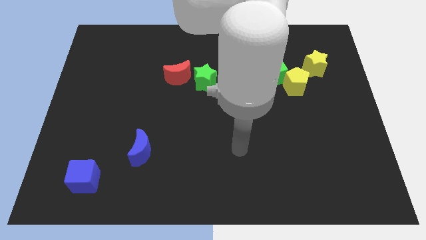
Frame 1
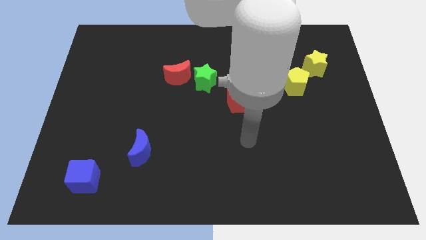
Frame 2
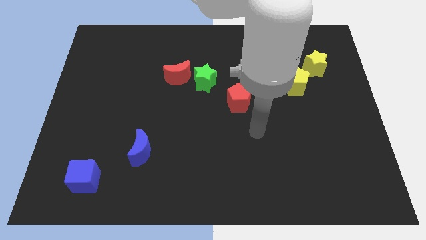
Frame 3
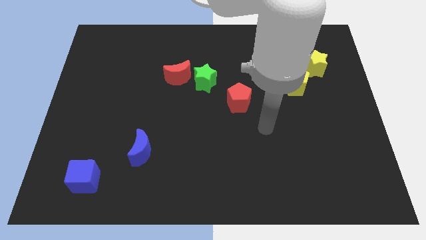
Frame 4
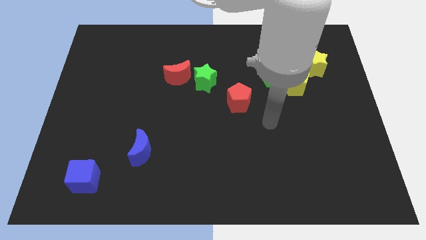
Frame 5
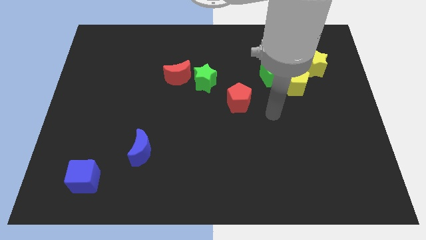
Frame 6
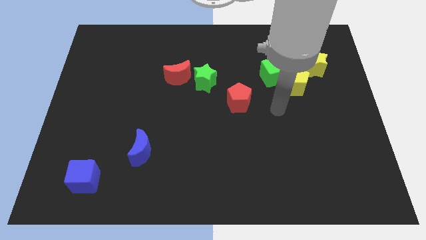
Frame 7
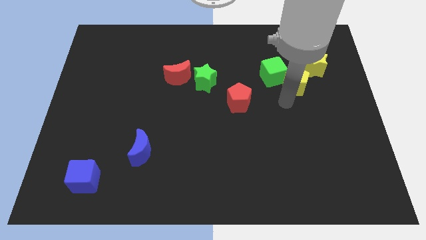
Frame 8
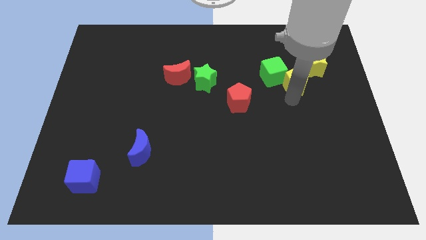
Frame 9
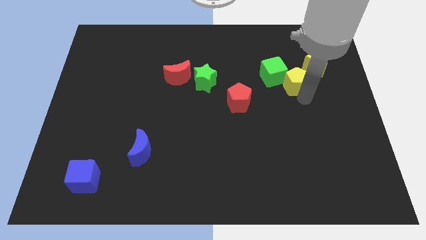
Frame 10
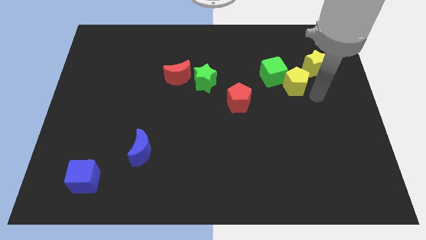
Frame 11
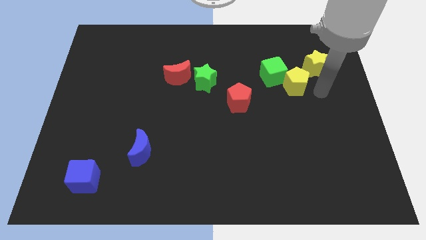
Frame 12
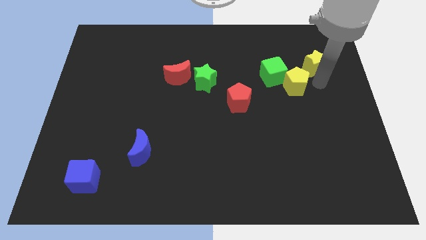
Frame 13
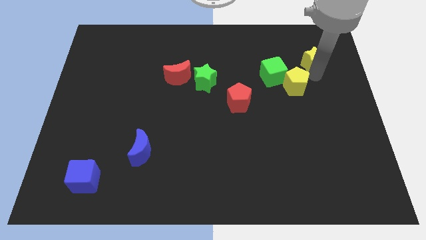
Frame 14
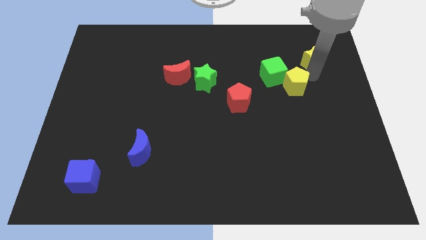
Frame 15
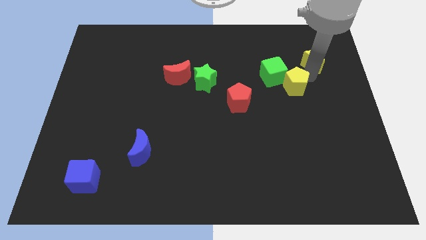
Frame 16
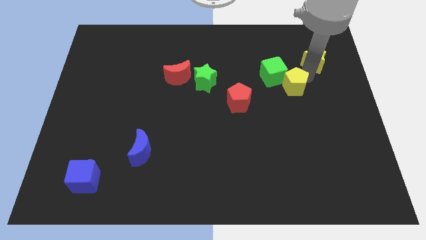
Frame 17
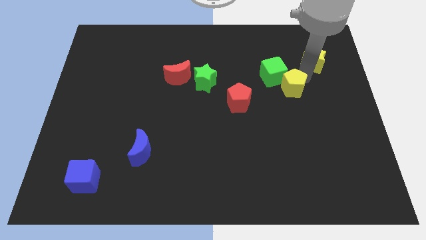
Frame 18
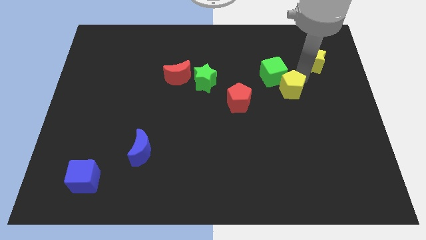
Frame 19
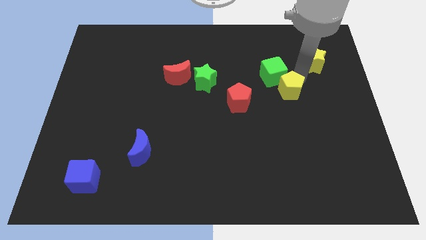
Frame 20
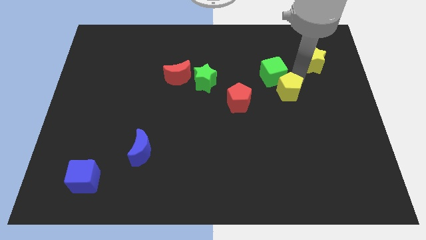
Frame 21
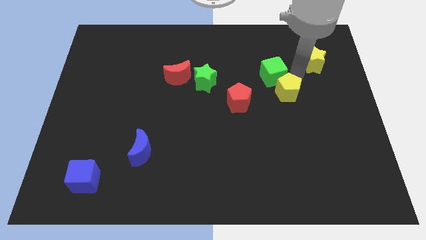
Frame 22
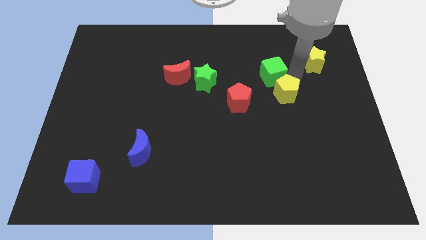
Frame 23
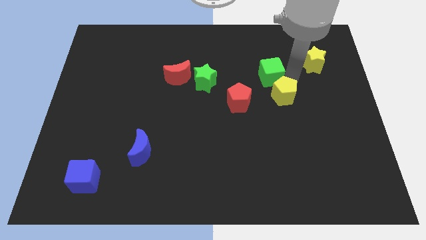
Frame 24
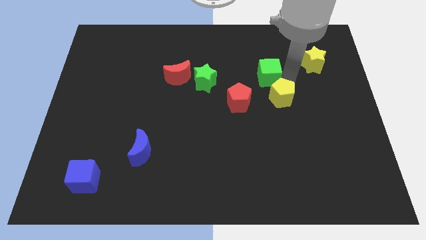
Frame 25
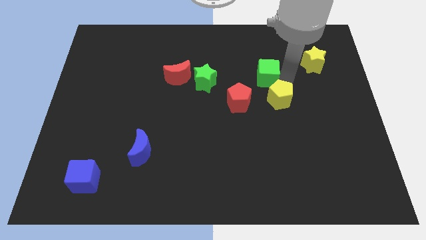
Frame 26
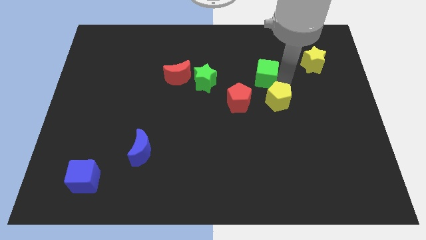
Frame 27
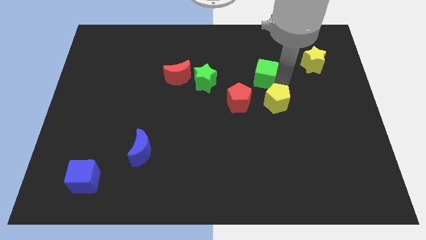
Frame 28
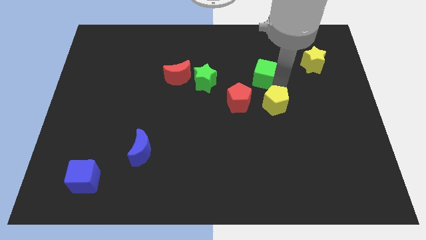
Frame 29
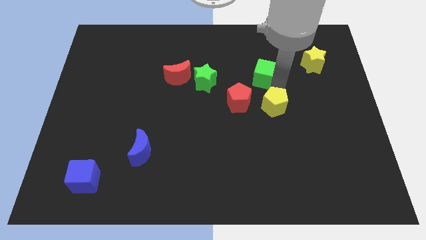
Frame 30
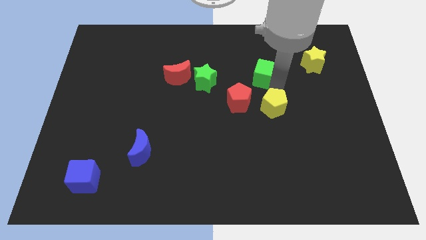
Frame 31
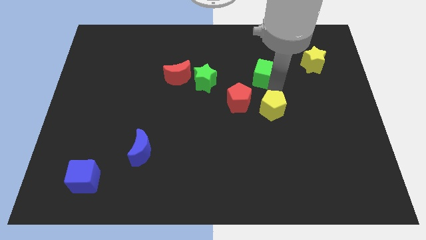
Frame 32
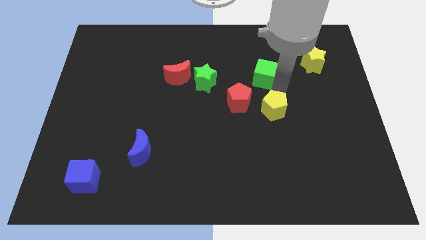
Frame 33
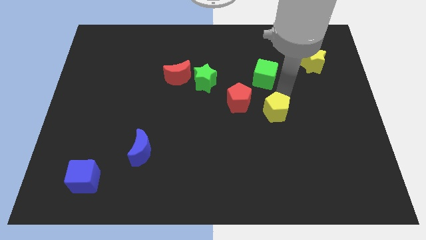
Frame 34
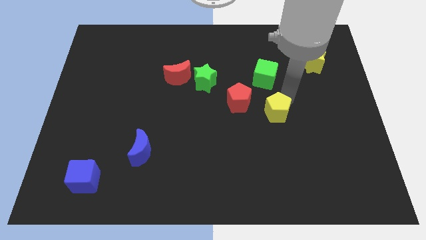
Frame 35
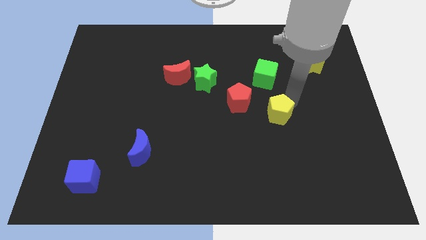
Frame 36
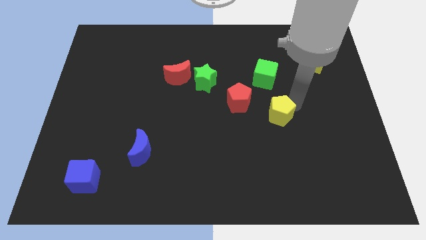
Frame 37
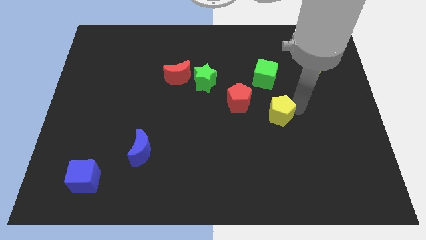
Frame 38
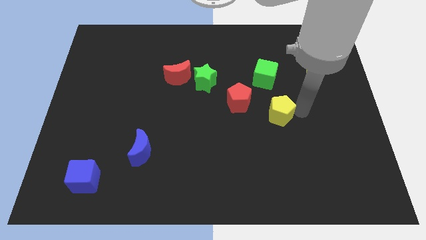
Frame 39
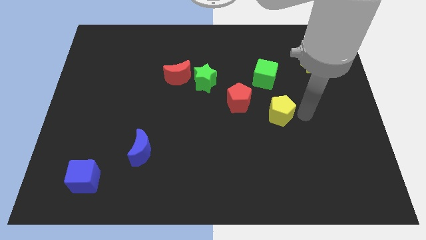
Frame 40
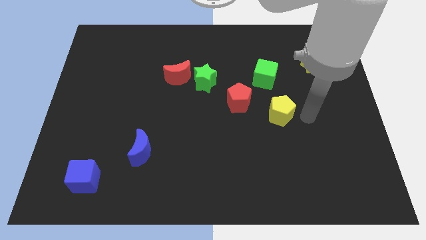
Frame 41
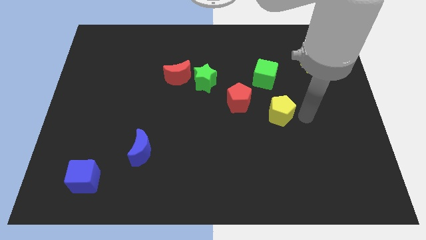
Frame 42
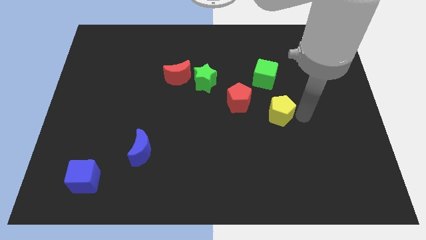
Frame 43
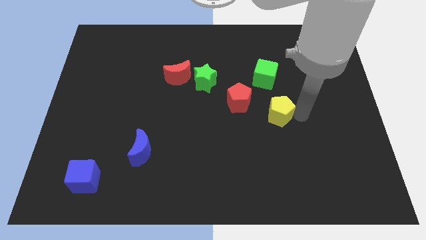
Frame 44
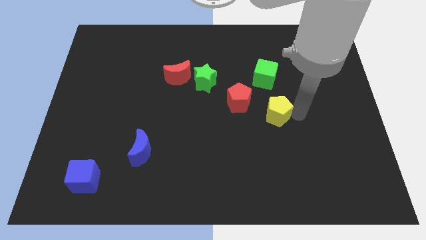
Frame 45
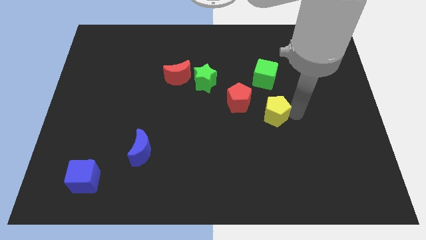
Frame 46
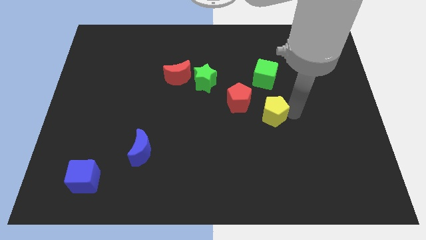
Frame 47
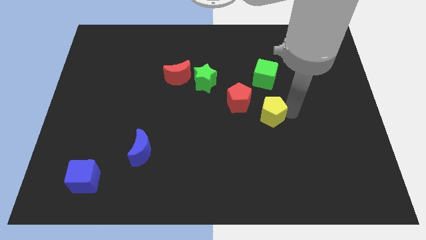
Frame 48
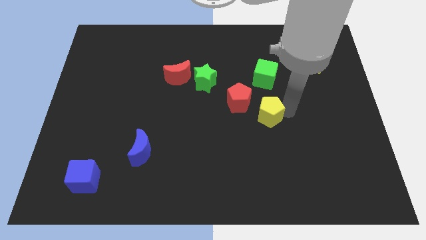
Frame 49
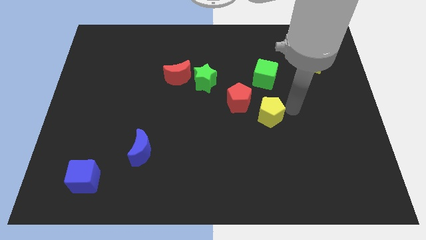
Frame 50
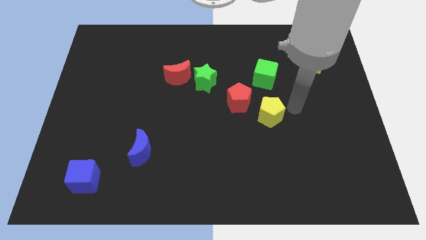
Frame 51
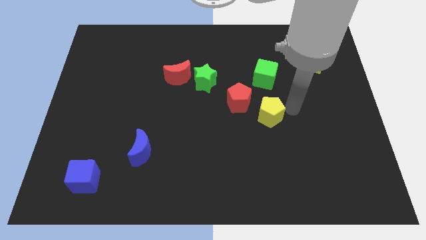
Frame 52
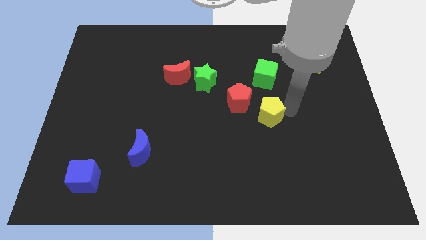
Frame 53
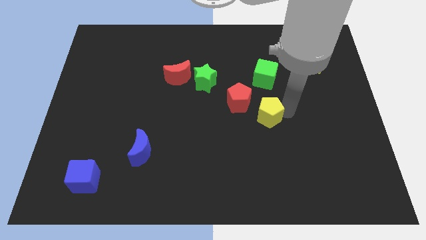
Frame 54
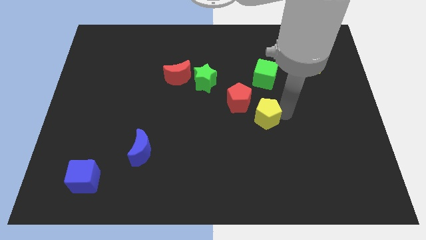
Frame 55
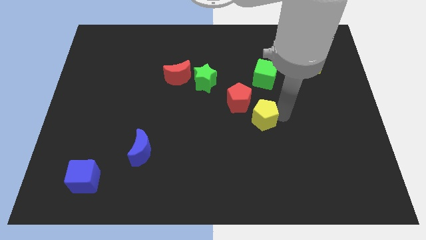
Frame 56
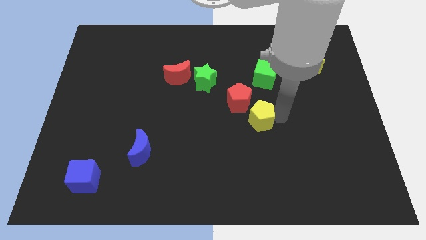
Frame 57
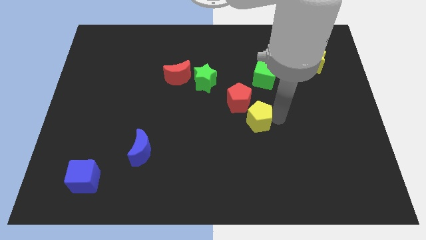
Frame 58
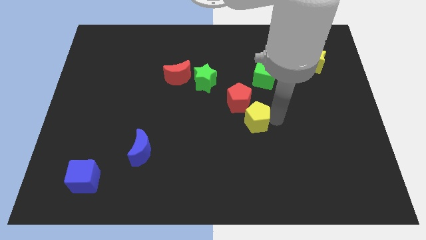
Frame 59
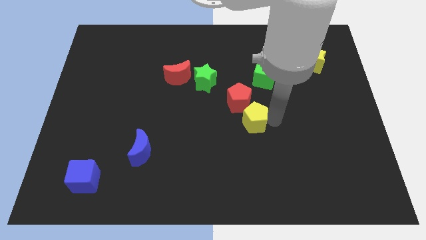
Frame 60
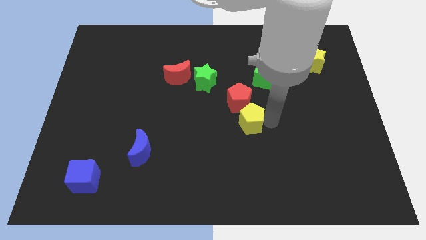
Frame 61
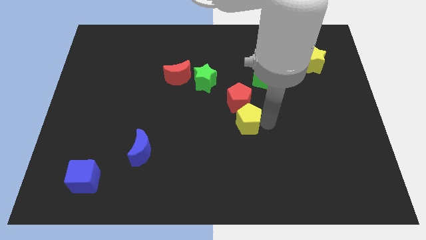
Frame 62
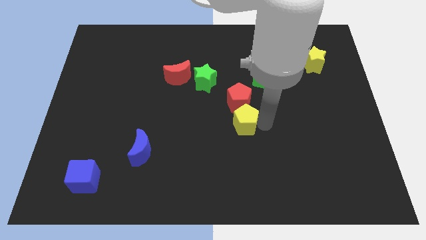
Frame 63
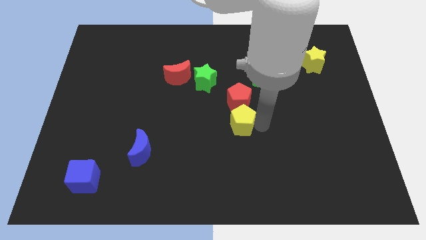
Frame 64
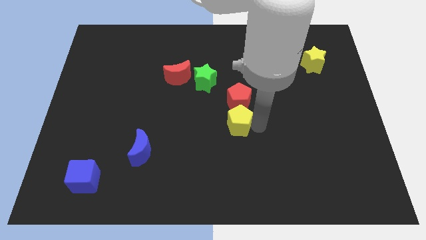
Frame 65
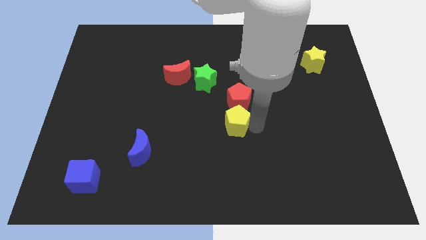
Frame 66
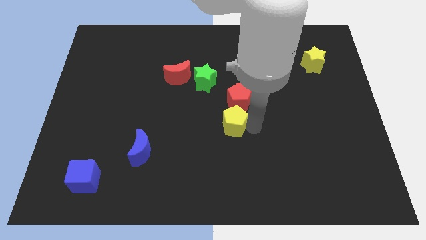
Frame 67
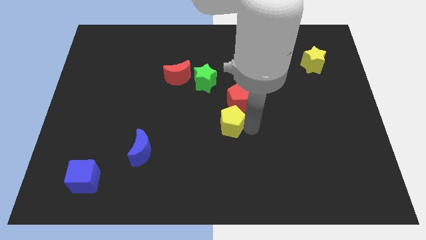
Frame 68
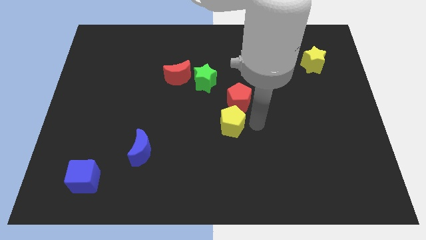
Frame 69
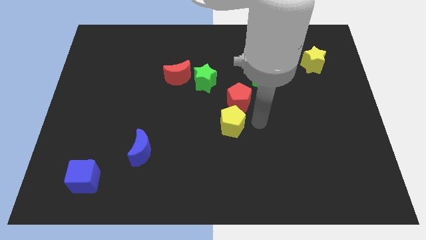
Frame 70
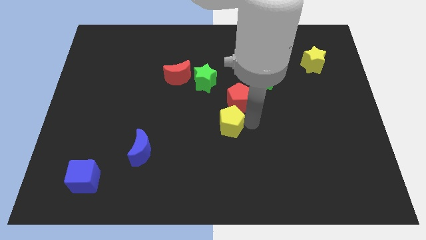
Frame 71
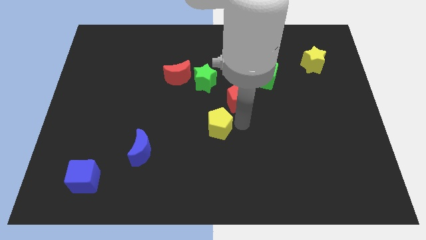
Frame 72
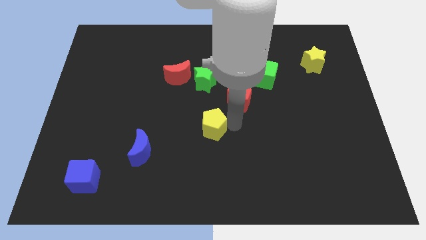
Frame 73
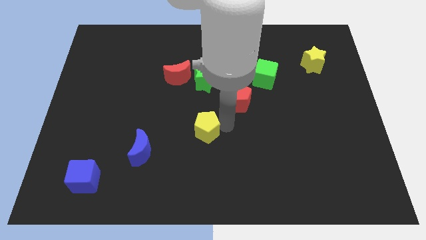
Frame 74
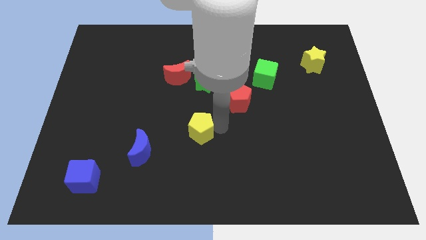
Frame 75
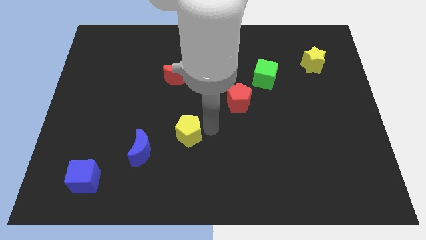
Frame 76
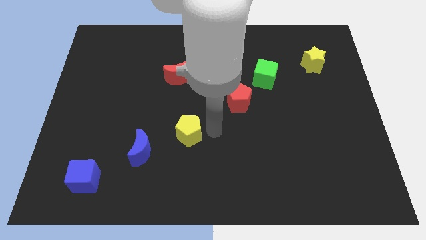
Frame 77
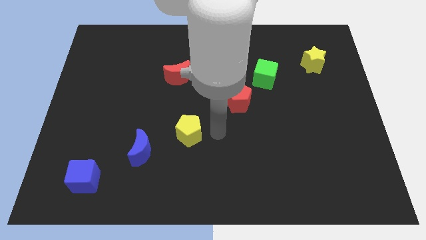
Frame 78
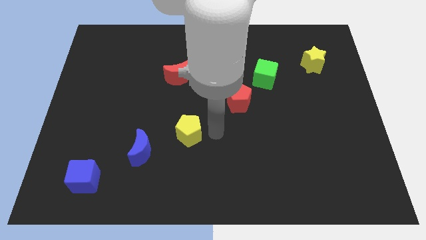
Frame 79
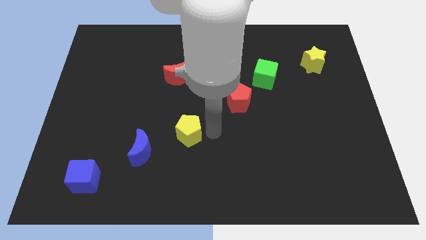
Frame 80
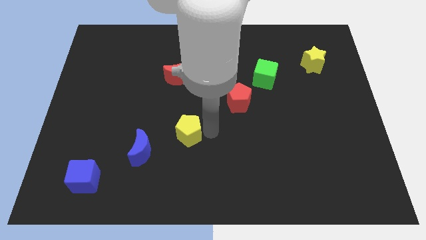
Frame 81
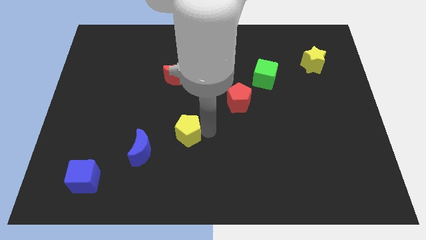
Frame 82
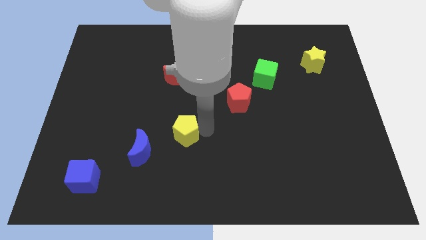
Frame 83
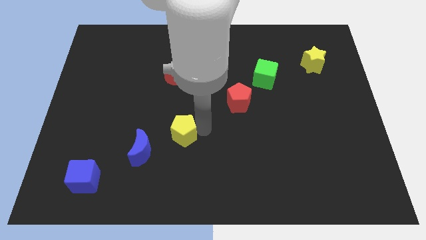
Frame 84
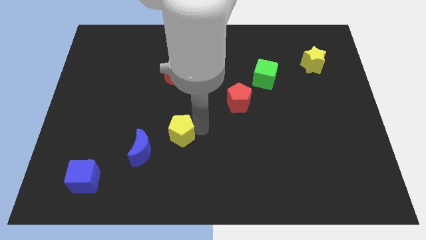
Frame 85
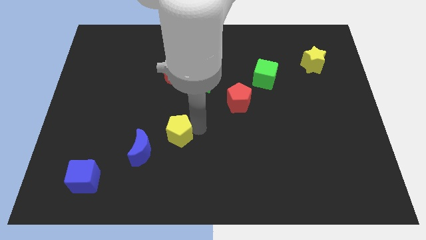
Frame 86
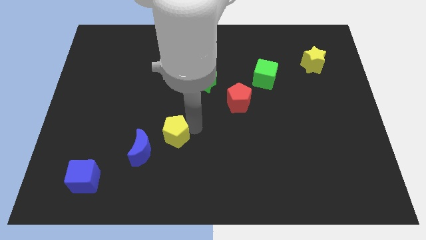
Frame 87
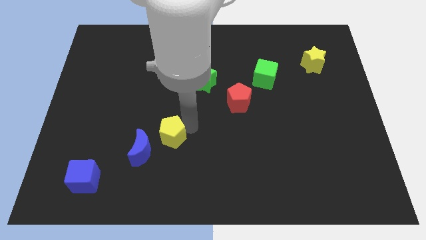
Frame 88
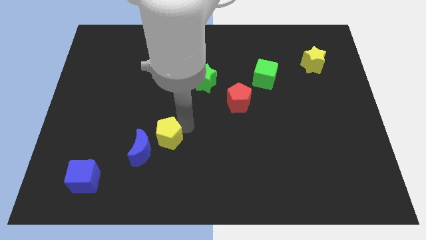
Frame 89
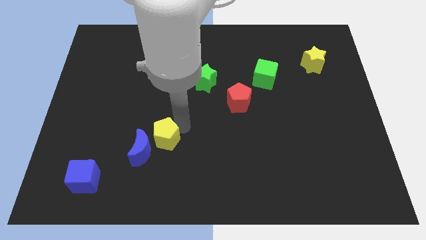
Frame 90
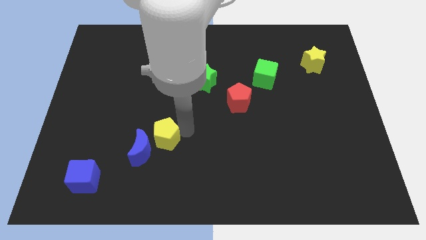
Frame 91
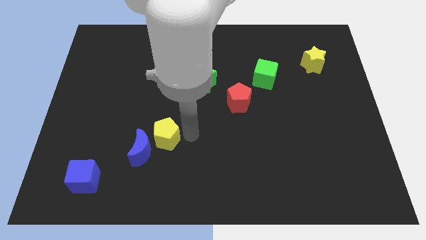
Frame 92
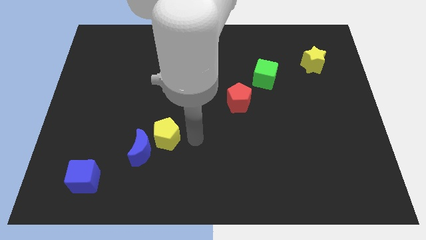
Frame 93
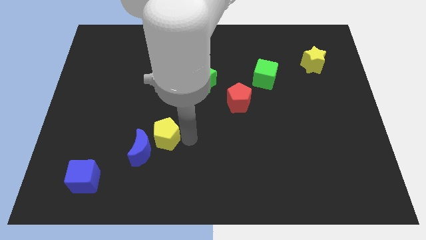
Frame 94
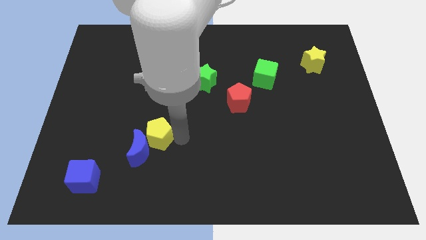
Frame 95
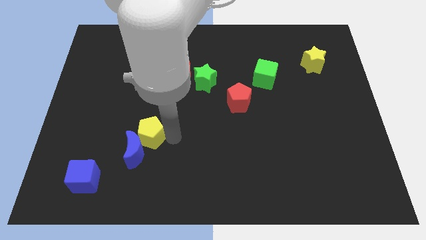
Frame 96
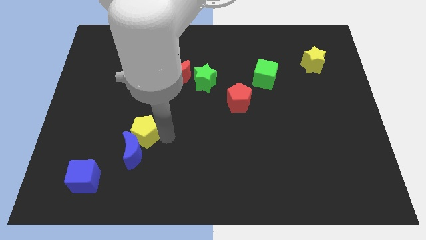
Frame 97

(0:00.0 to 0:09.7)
slide the yellow pentagon diagonally up and to the left of the blue moon
